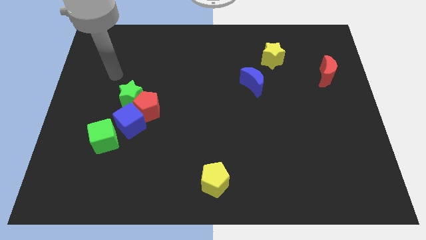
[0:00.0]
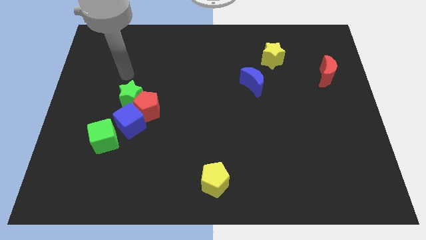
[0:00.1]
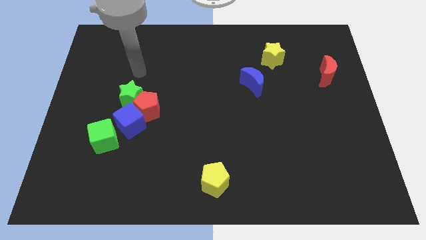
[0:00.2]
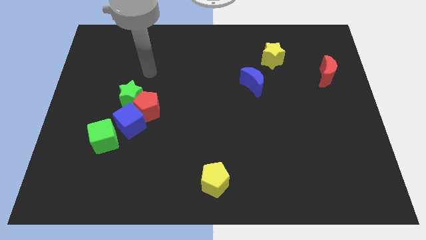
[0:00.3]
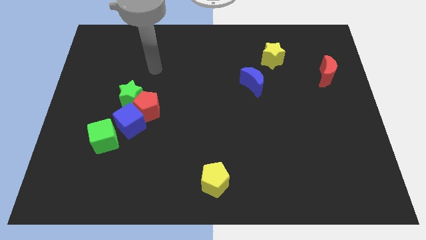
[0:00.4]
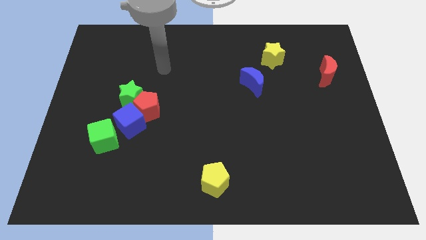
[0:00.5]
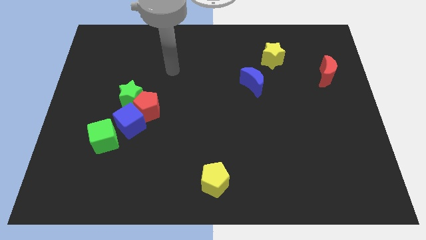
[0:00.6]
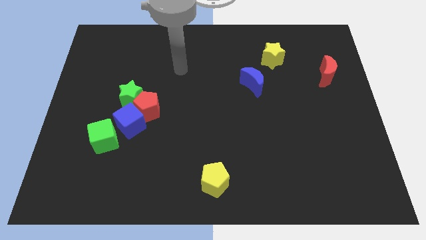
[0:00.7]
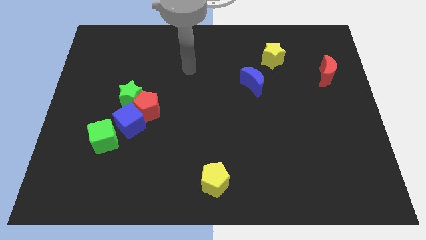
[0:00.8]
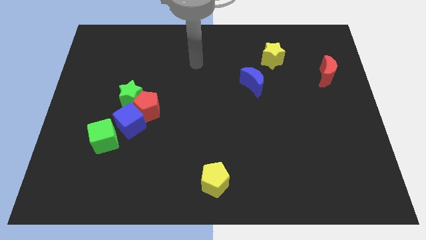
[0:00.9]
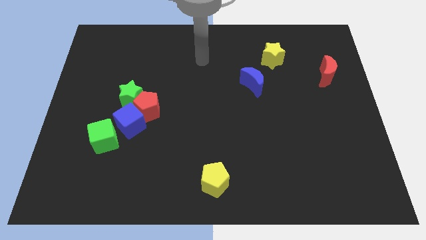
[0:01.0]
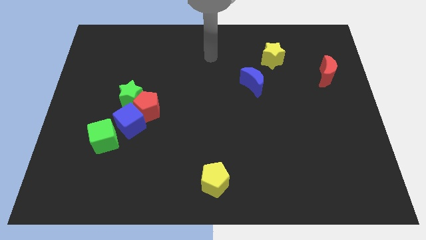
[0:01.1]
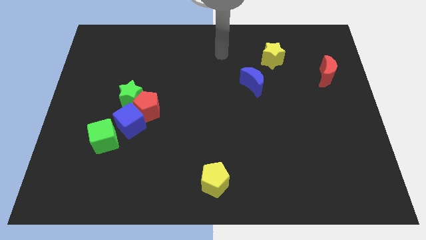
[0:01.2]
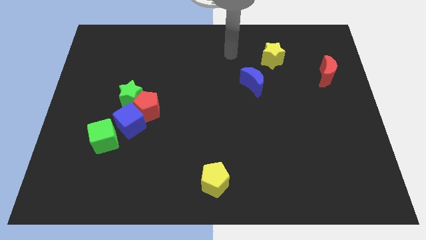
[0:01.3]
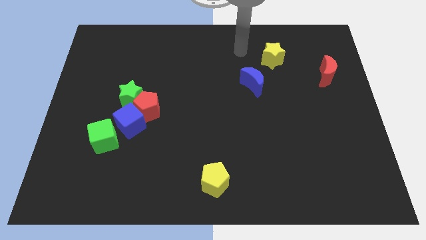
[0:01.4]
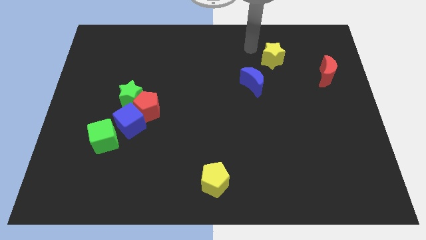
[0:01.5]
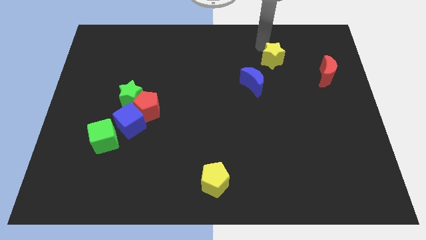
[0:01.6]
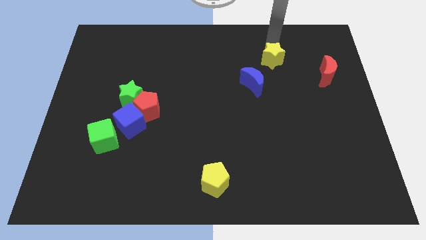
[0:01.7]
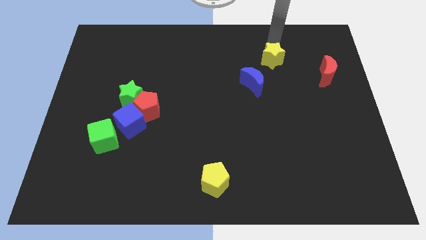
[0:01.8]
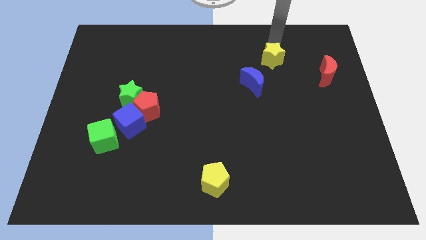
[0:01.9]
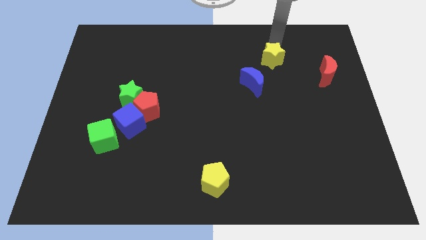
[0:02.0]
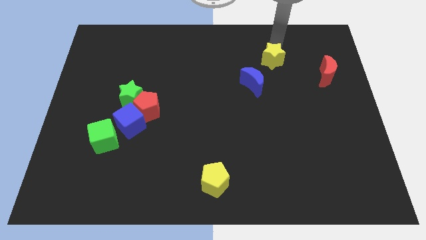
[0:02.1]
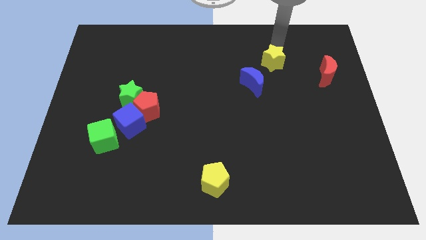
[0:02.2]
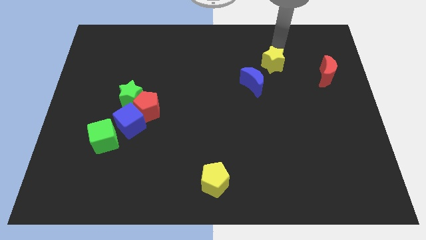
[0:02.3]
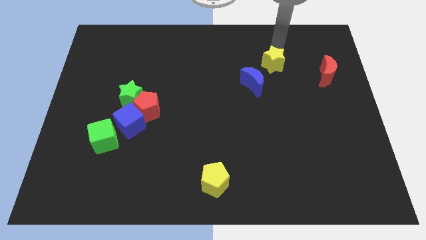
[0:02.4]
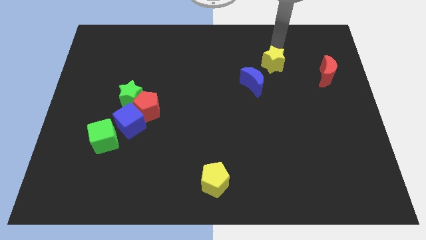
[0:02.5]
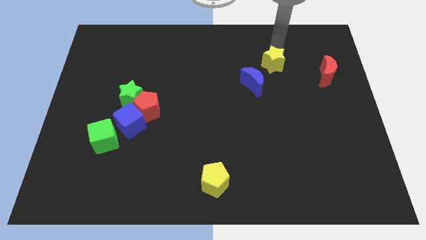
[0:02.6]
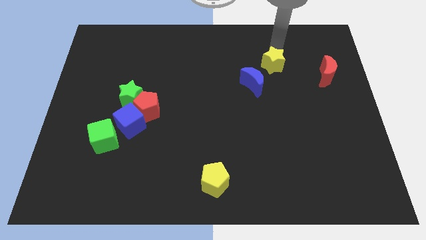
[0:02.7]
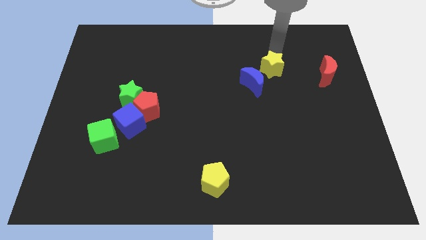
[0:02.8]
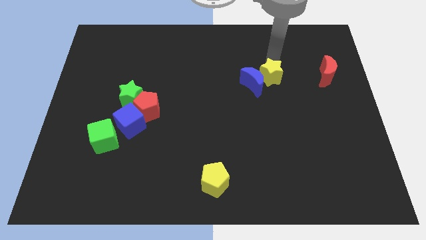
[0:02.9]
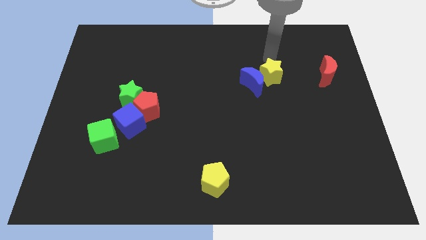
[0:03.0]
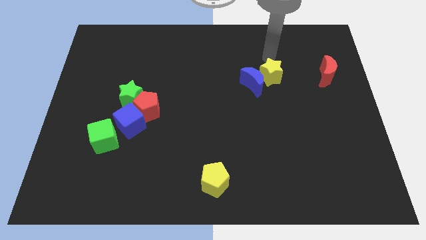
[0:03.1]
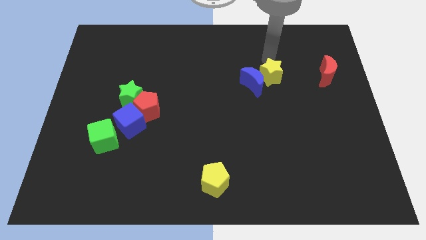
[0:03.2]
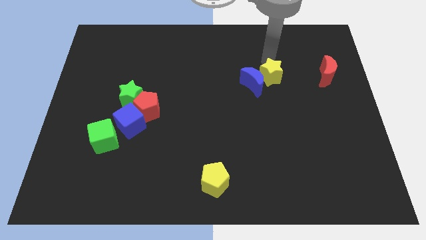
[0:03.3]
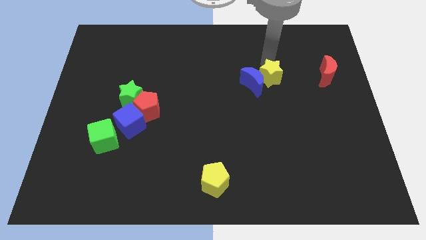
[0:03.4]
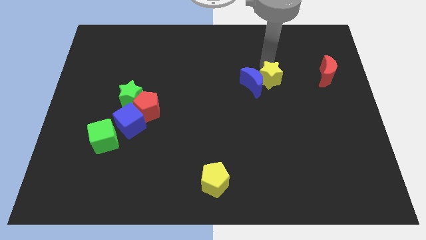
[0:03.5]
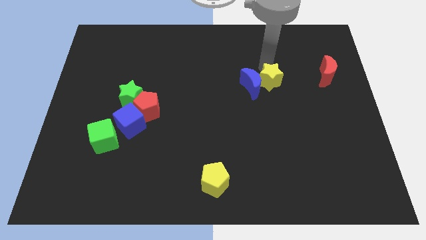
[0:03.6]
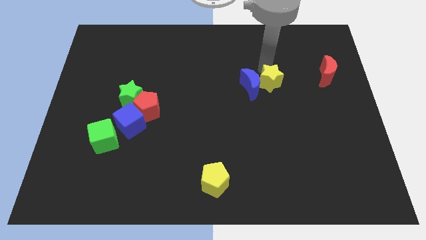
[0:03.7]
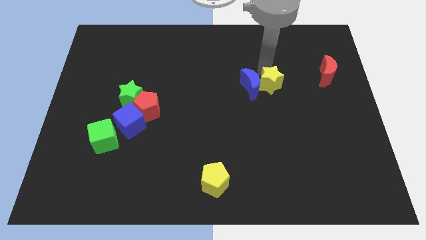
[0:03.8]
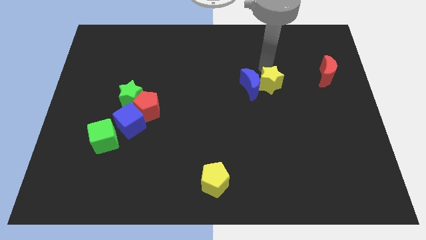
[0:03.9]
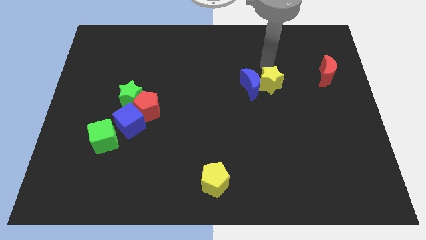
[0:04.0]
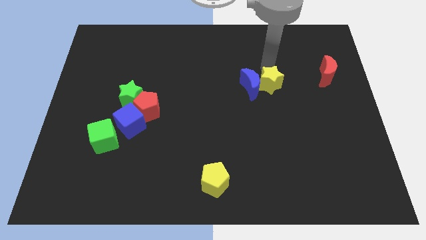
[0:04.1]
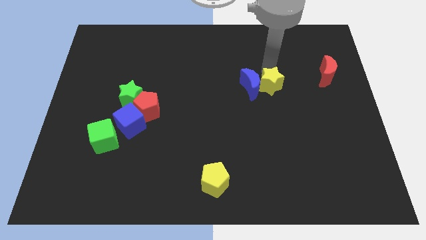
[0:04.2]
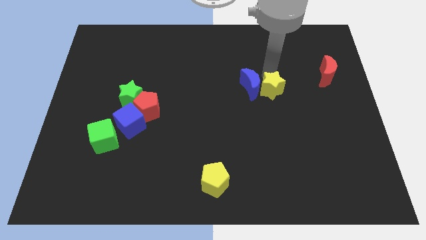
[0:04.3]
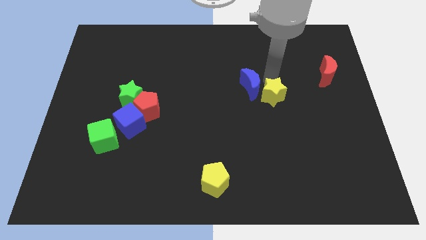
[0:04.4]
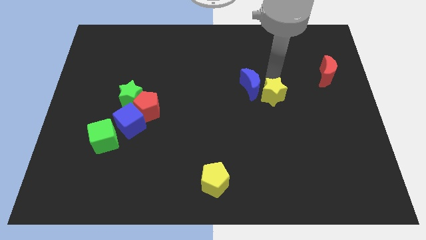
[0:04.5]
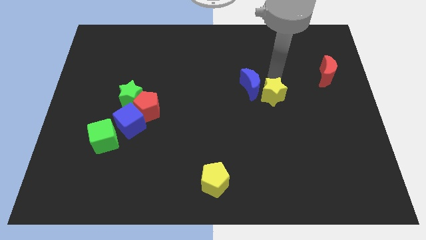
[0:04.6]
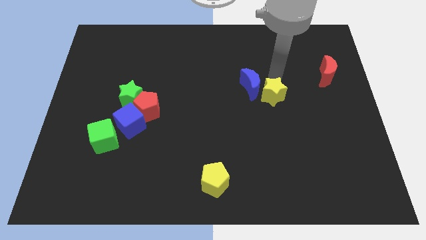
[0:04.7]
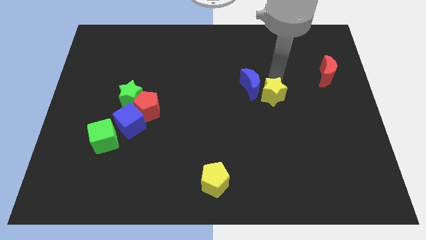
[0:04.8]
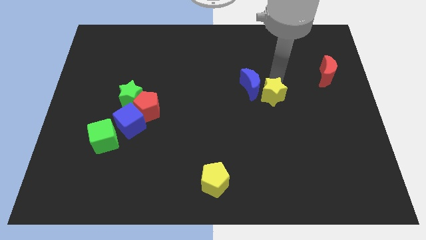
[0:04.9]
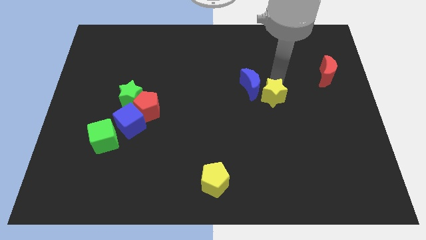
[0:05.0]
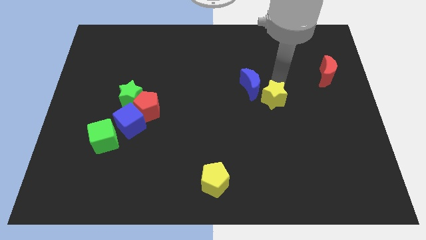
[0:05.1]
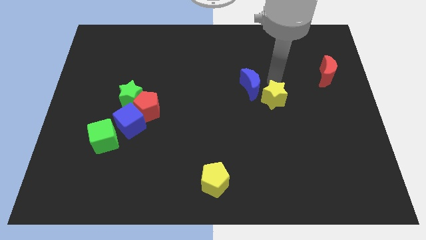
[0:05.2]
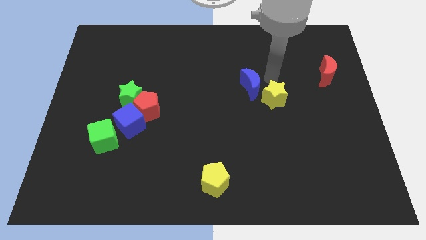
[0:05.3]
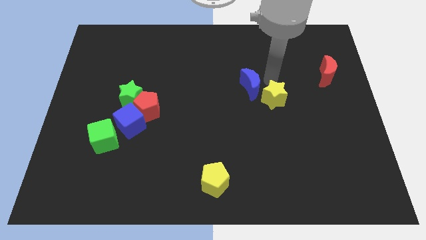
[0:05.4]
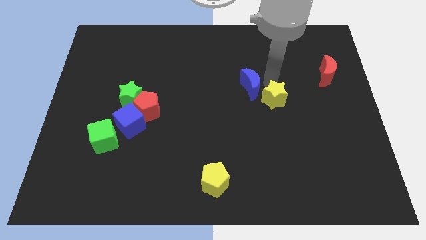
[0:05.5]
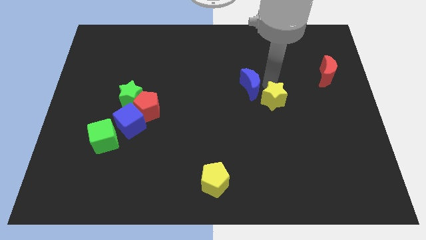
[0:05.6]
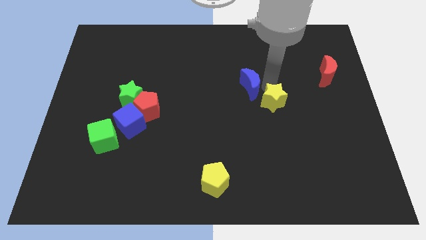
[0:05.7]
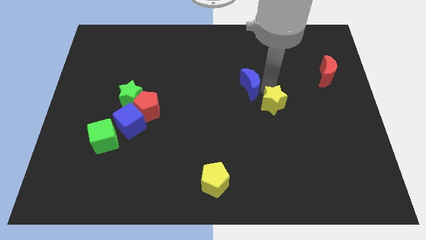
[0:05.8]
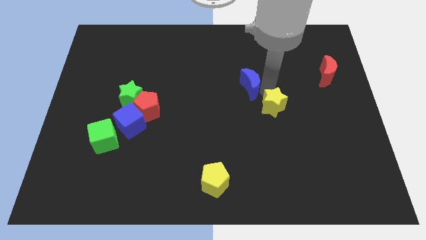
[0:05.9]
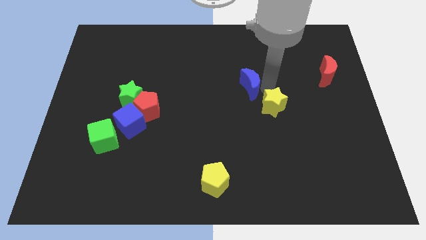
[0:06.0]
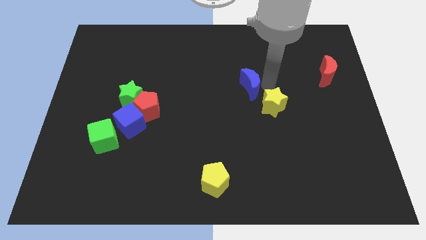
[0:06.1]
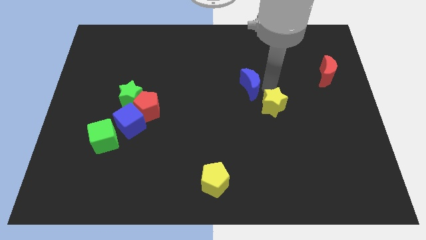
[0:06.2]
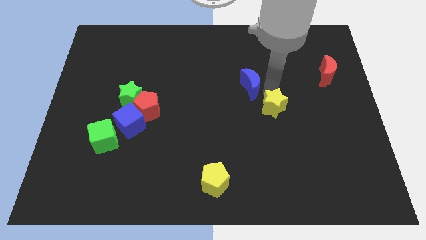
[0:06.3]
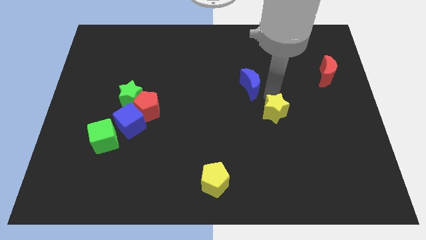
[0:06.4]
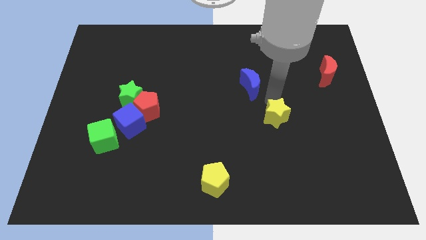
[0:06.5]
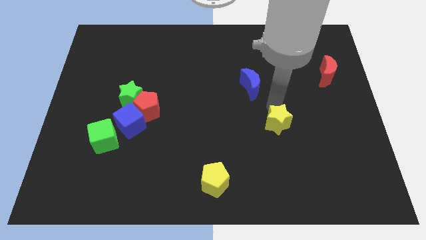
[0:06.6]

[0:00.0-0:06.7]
move the yellow star down

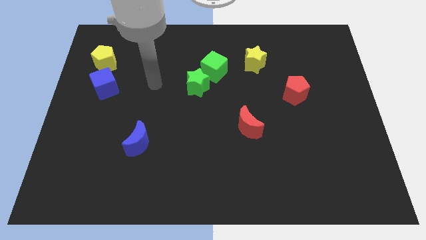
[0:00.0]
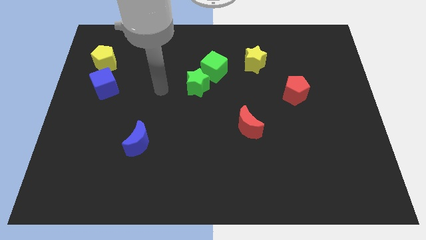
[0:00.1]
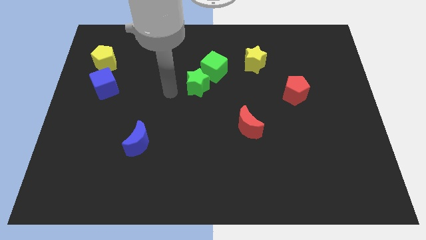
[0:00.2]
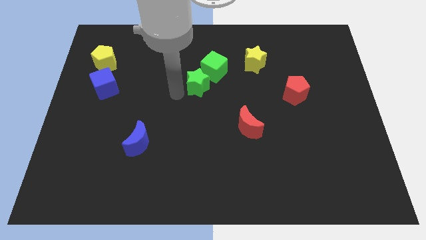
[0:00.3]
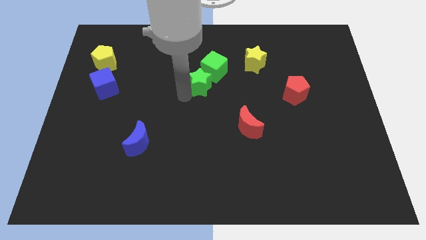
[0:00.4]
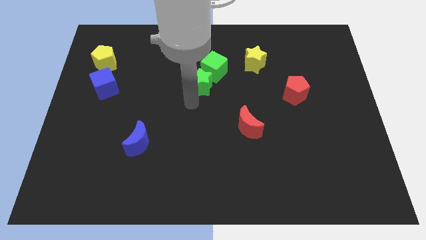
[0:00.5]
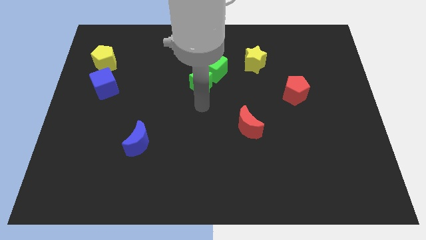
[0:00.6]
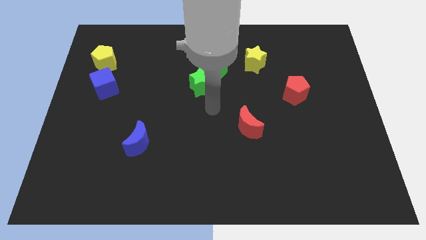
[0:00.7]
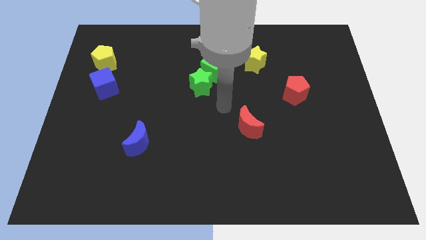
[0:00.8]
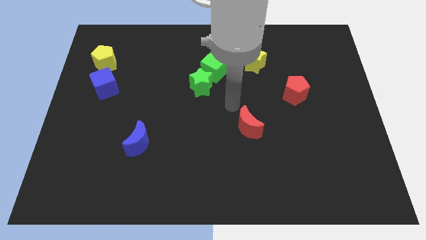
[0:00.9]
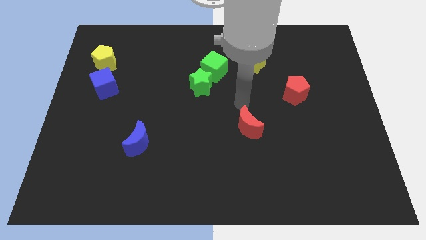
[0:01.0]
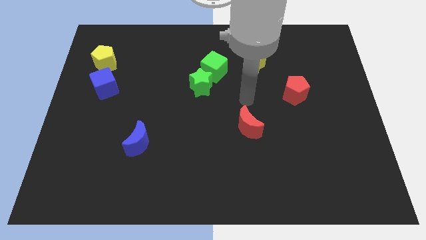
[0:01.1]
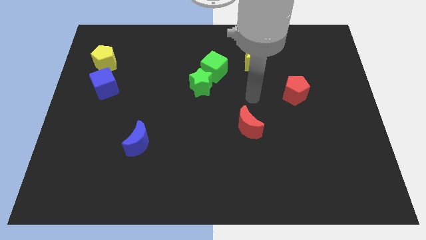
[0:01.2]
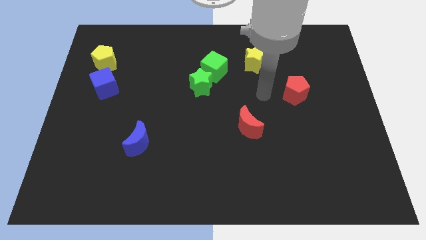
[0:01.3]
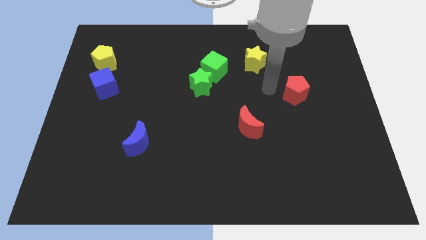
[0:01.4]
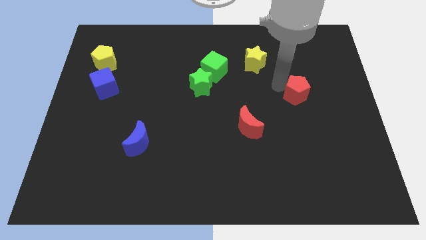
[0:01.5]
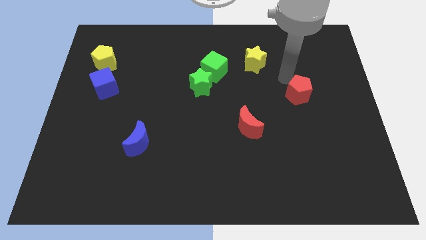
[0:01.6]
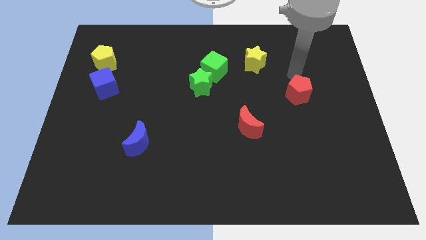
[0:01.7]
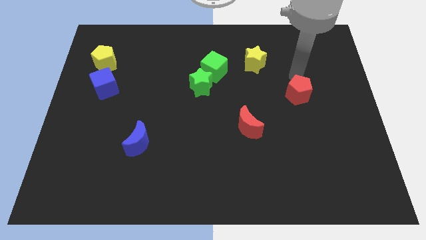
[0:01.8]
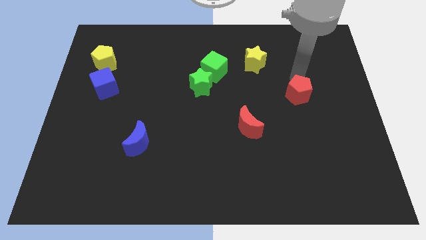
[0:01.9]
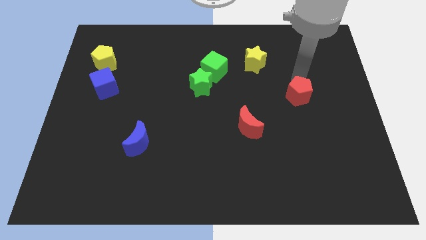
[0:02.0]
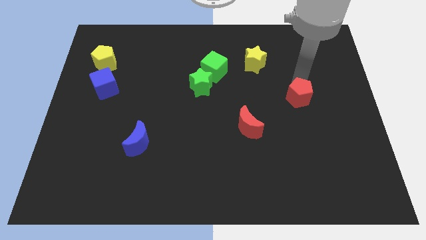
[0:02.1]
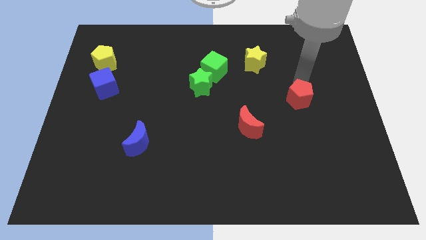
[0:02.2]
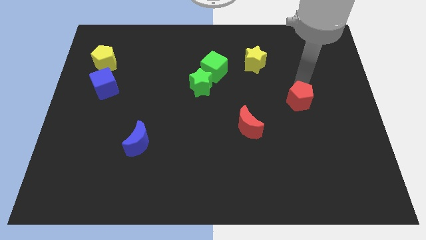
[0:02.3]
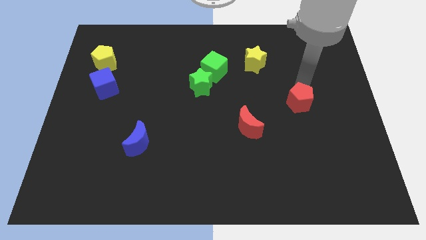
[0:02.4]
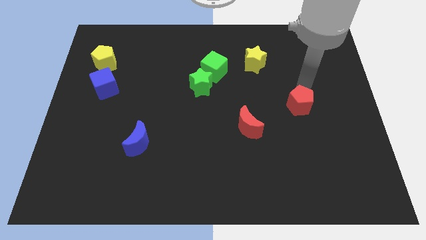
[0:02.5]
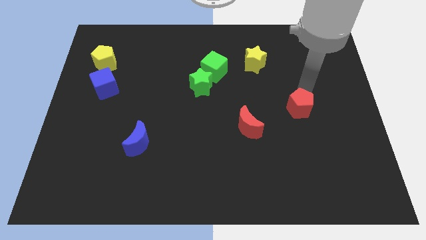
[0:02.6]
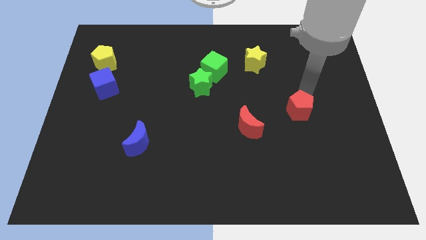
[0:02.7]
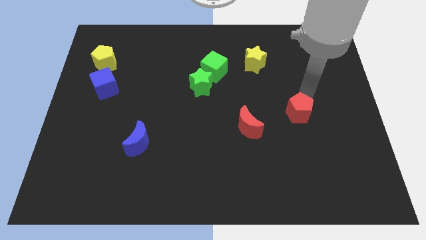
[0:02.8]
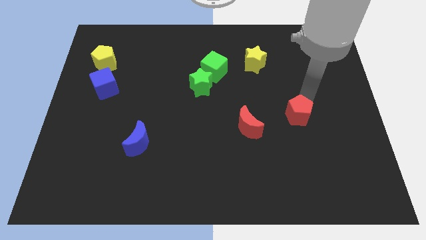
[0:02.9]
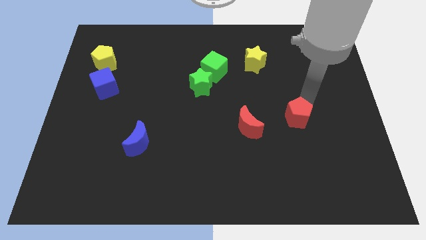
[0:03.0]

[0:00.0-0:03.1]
move the red pentagon a bit downwards
